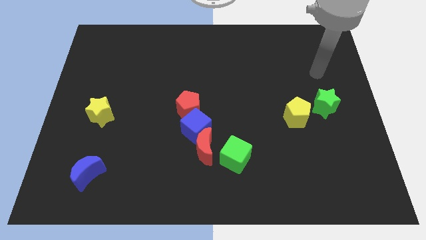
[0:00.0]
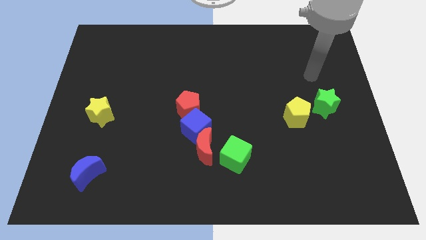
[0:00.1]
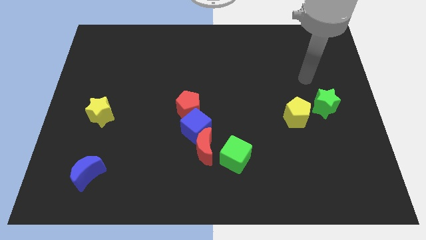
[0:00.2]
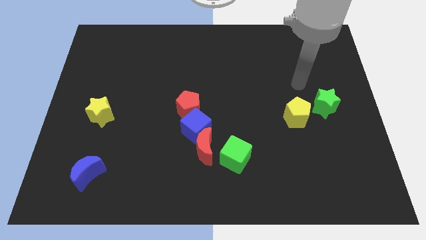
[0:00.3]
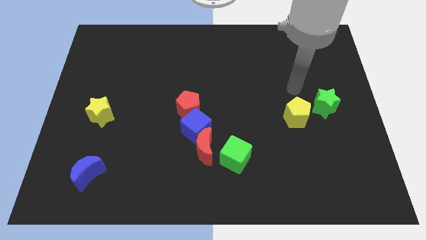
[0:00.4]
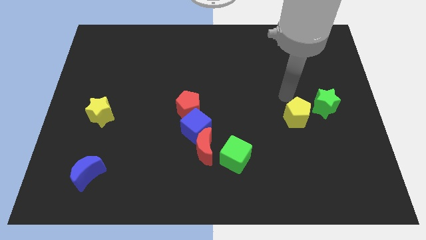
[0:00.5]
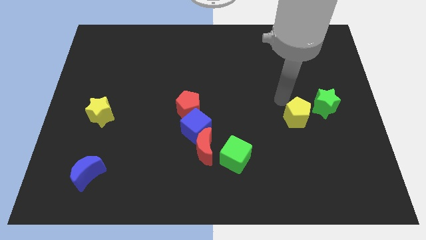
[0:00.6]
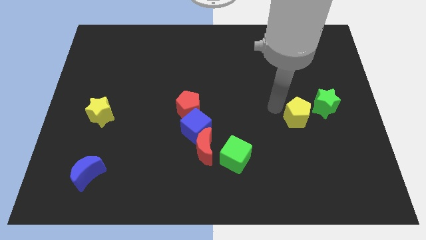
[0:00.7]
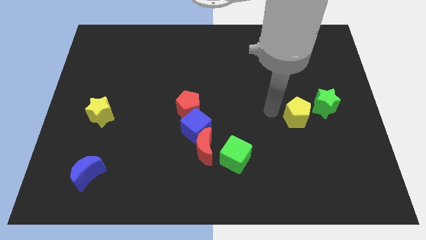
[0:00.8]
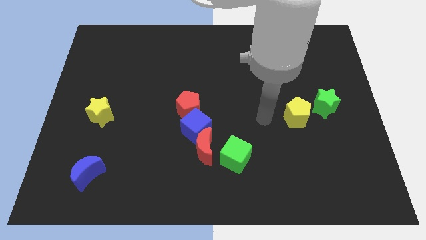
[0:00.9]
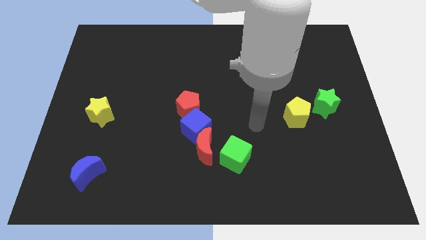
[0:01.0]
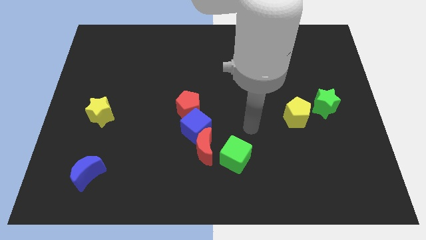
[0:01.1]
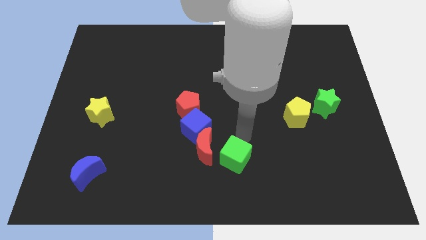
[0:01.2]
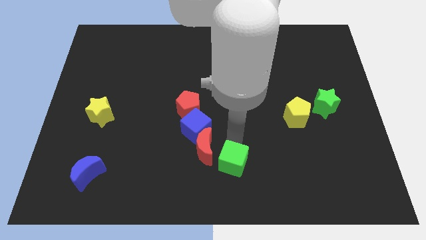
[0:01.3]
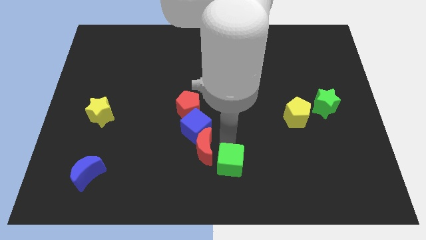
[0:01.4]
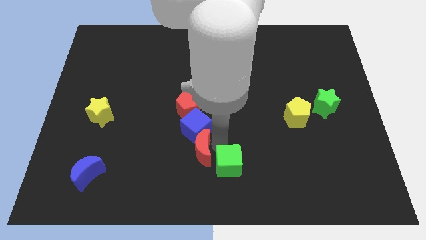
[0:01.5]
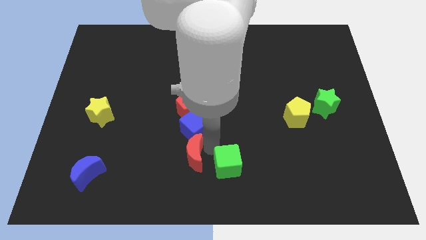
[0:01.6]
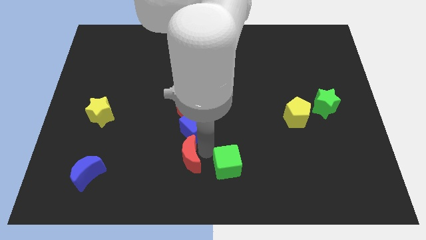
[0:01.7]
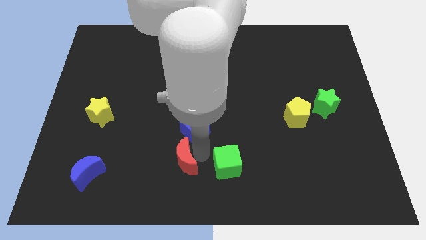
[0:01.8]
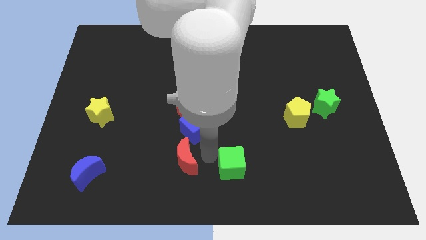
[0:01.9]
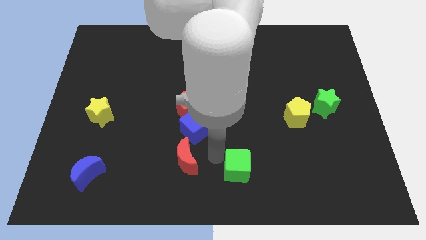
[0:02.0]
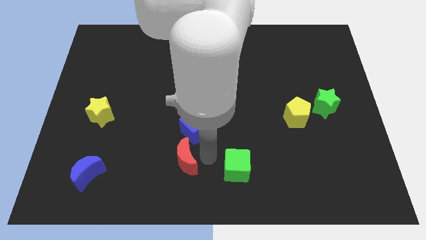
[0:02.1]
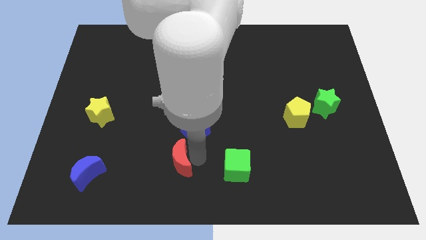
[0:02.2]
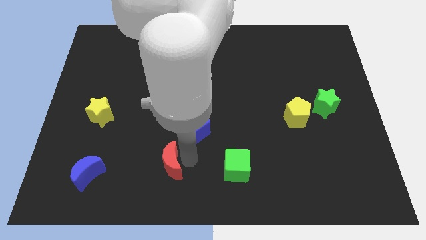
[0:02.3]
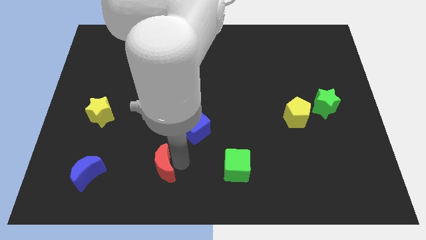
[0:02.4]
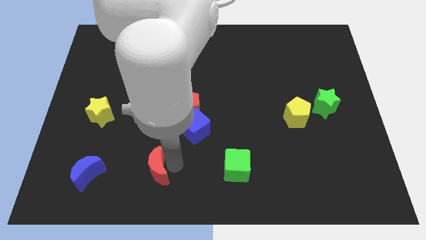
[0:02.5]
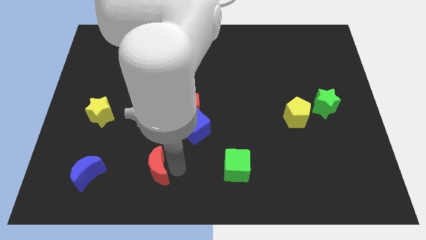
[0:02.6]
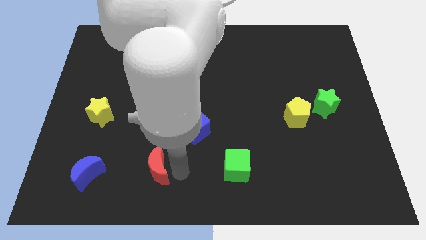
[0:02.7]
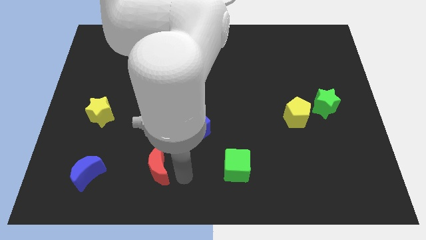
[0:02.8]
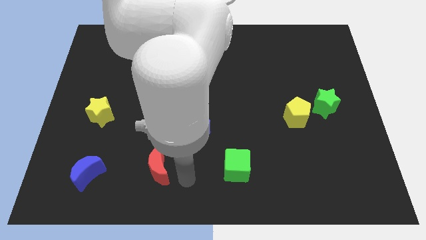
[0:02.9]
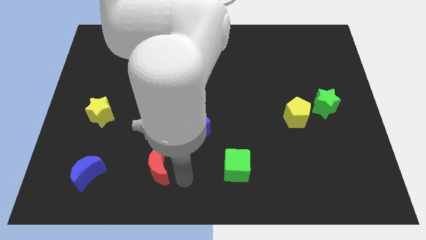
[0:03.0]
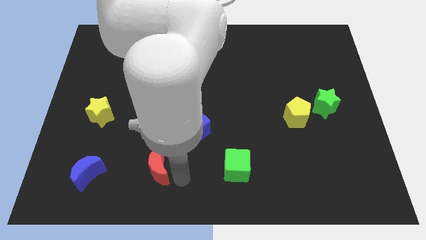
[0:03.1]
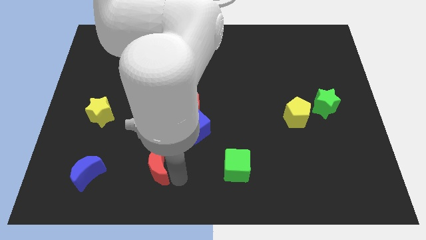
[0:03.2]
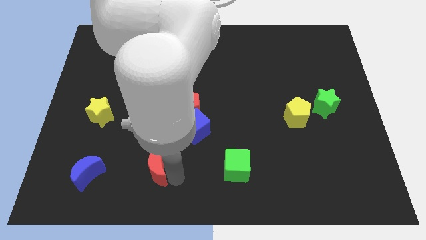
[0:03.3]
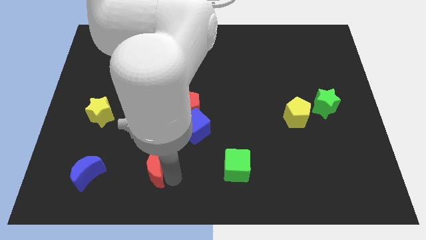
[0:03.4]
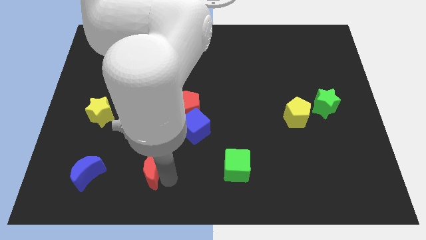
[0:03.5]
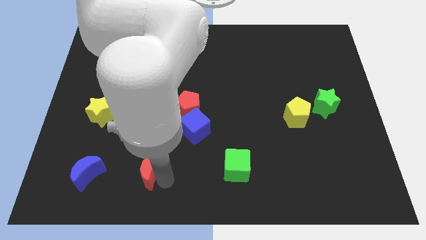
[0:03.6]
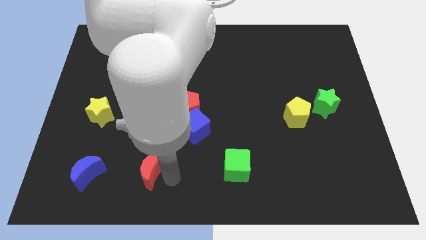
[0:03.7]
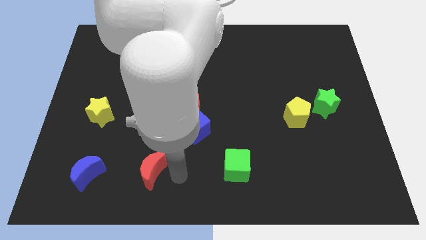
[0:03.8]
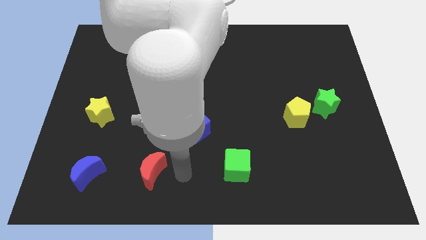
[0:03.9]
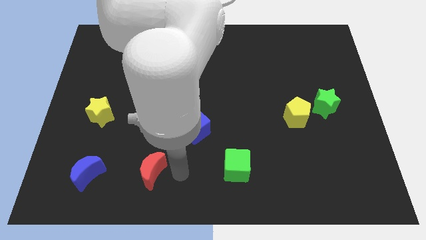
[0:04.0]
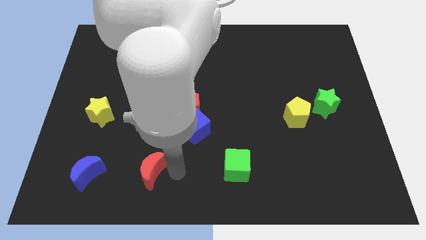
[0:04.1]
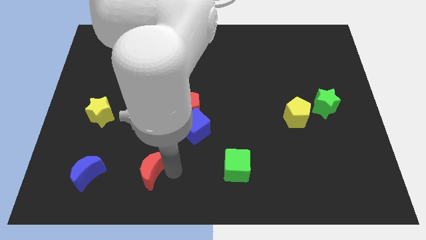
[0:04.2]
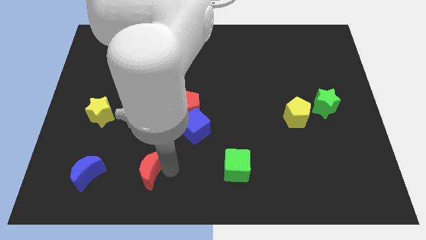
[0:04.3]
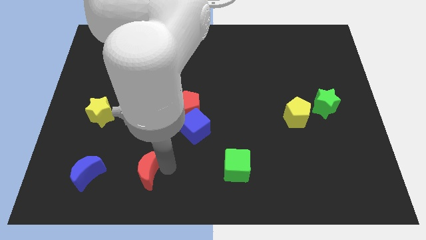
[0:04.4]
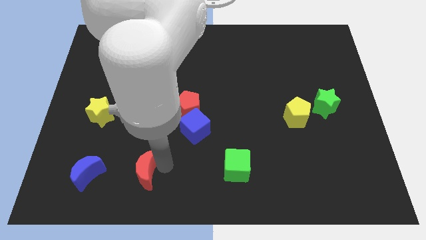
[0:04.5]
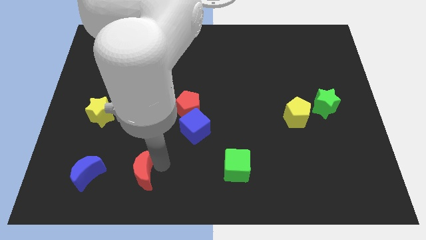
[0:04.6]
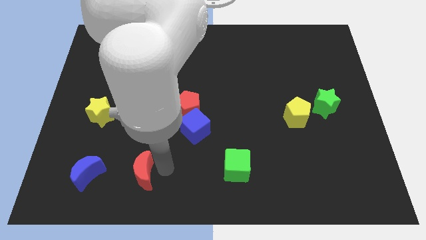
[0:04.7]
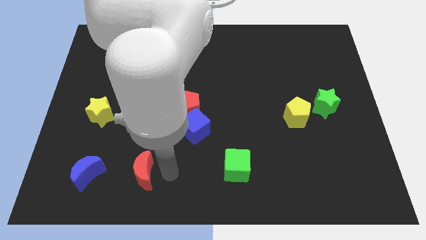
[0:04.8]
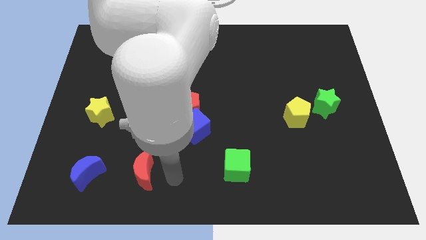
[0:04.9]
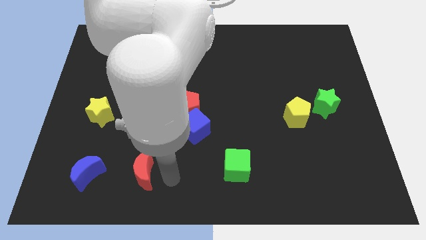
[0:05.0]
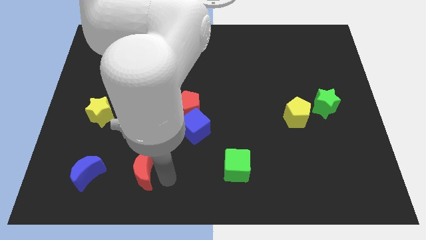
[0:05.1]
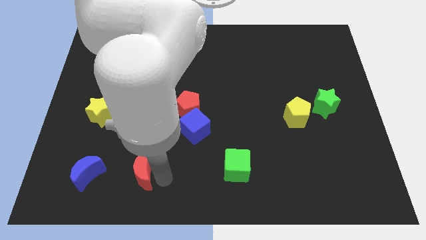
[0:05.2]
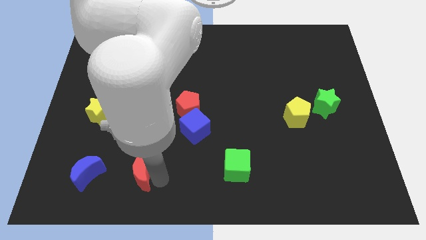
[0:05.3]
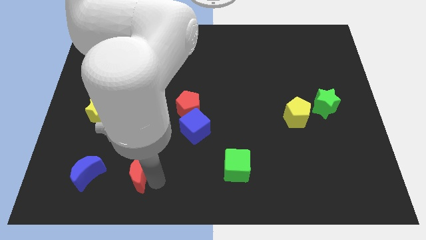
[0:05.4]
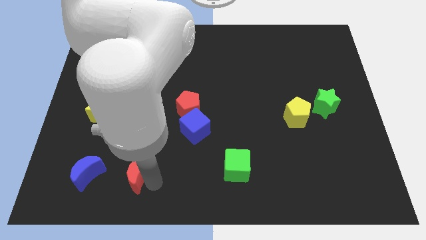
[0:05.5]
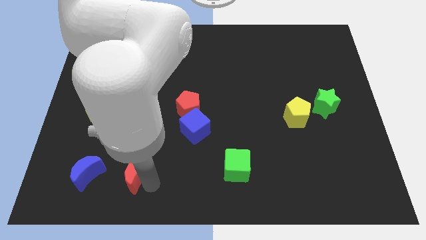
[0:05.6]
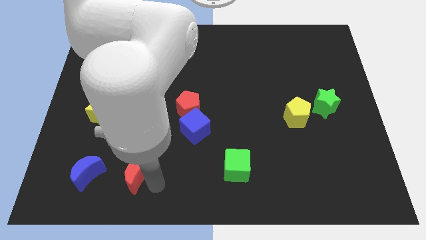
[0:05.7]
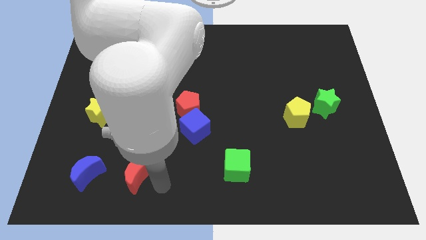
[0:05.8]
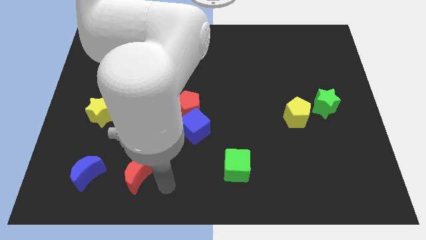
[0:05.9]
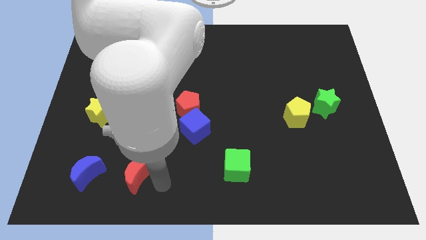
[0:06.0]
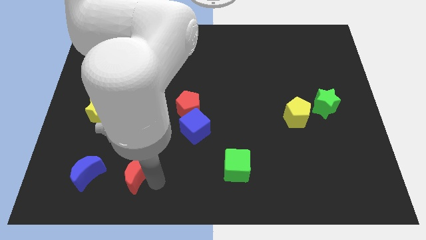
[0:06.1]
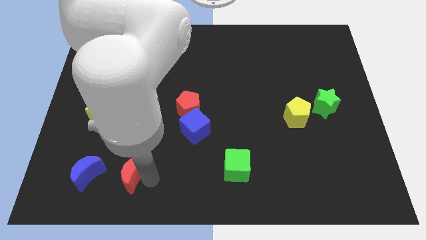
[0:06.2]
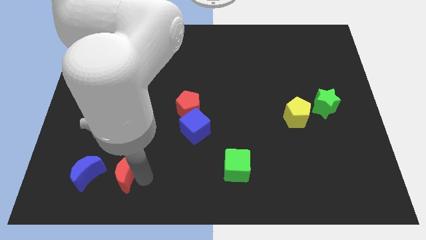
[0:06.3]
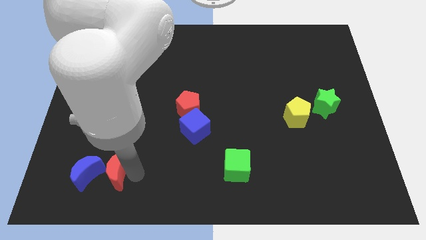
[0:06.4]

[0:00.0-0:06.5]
put the red moon towards the blue moon
